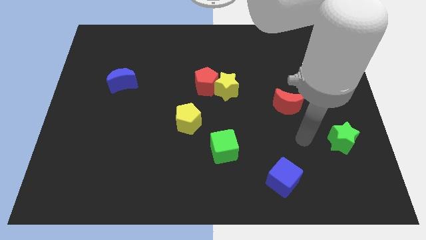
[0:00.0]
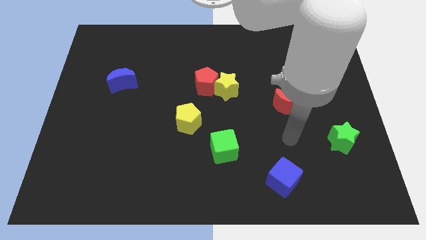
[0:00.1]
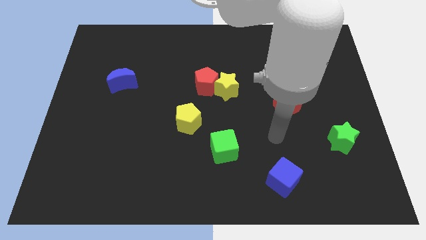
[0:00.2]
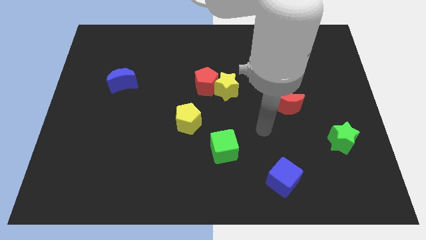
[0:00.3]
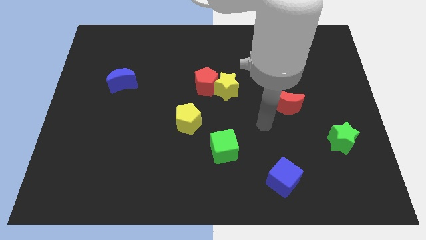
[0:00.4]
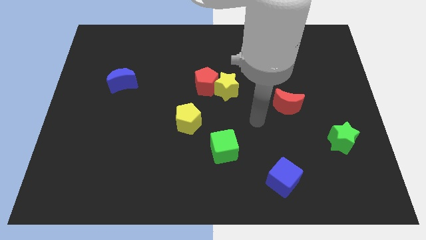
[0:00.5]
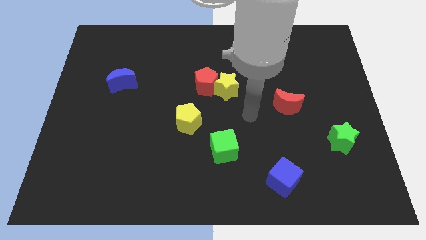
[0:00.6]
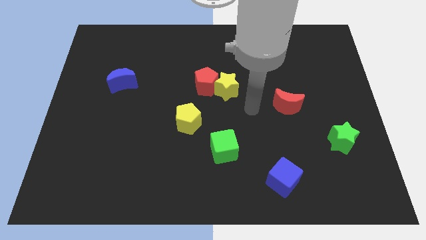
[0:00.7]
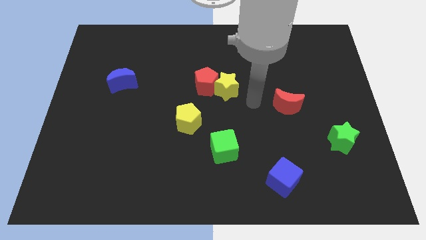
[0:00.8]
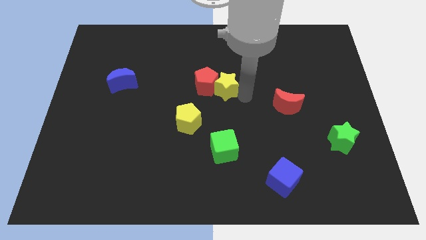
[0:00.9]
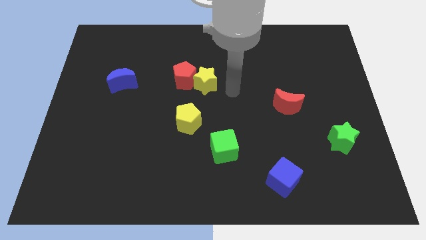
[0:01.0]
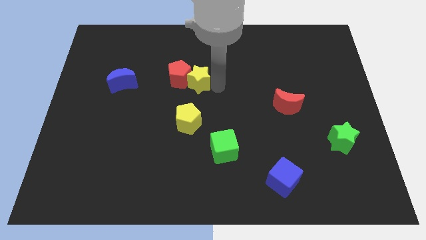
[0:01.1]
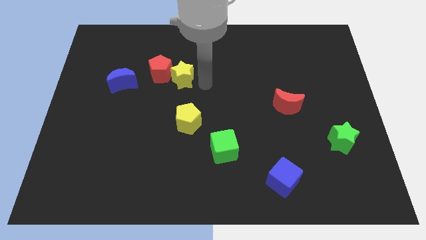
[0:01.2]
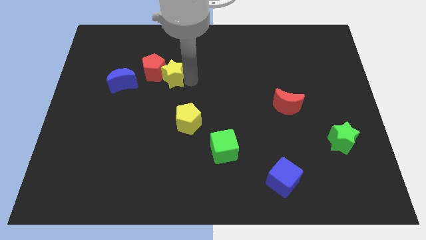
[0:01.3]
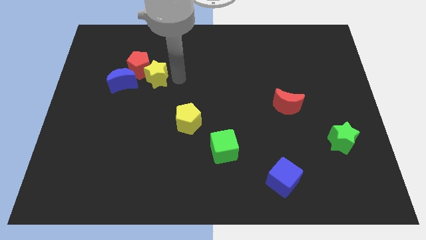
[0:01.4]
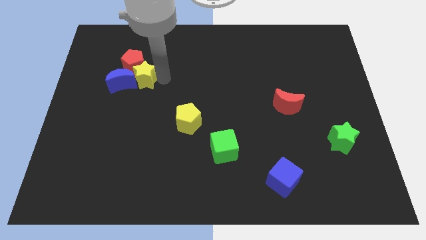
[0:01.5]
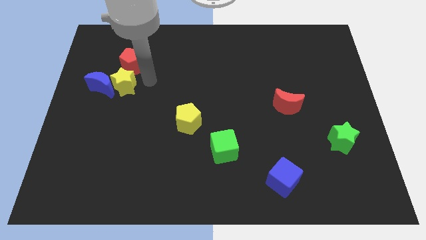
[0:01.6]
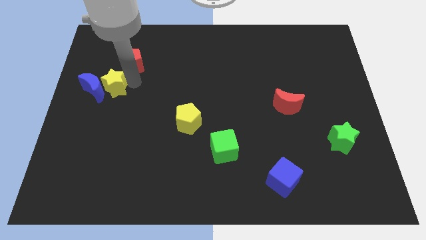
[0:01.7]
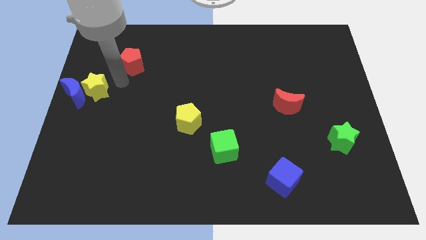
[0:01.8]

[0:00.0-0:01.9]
move the red pentagon away from the yellow star

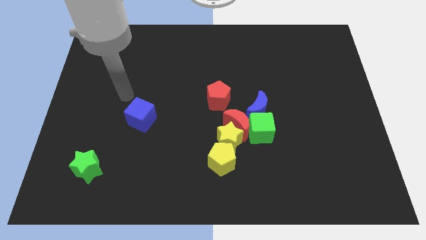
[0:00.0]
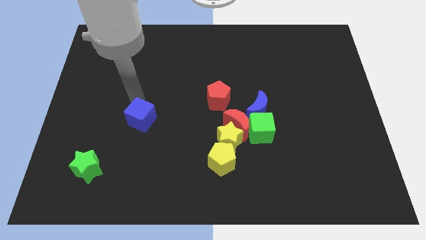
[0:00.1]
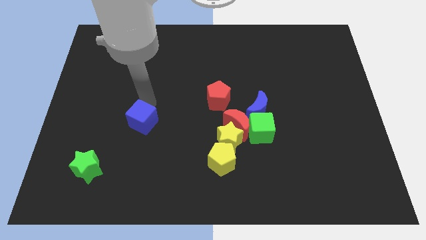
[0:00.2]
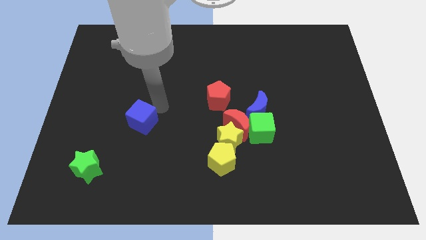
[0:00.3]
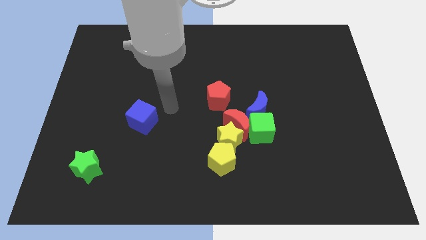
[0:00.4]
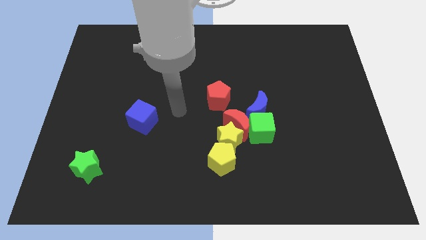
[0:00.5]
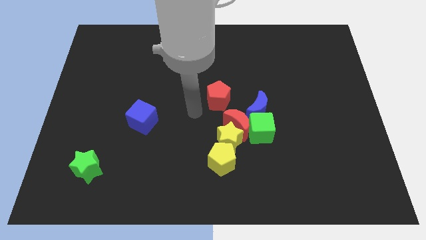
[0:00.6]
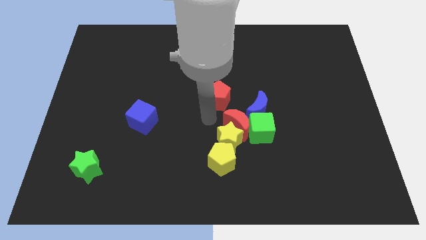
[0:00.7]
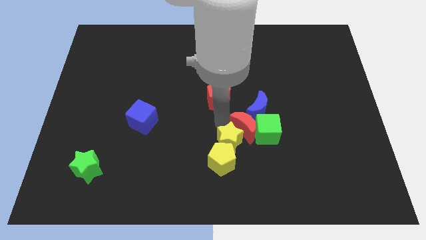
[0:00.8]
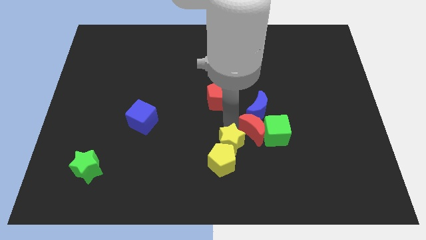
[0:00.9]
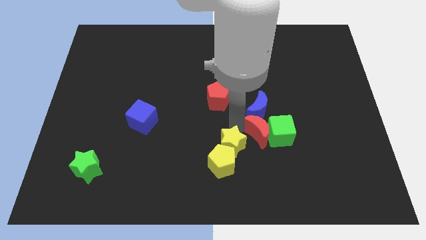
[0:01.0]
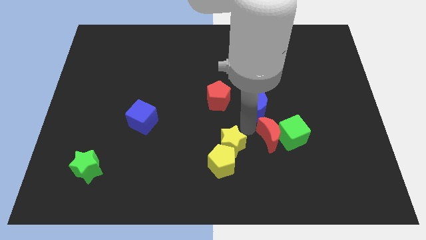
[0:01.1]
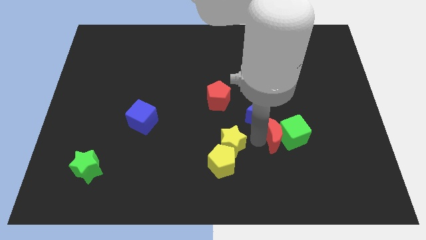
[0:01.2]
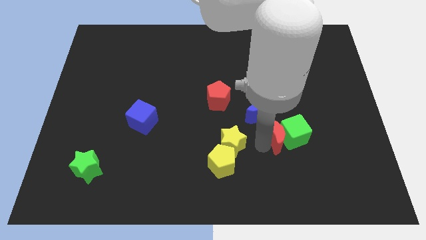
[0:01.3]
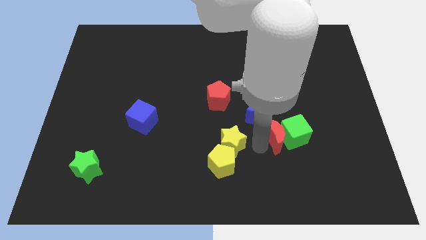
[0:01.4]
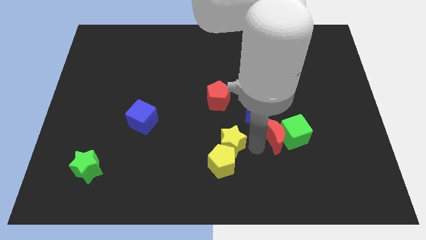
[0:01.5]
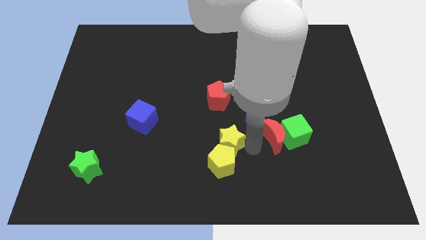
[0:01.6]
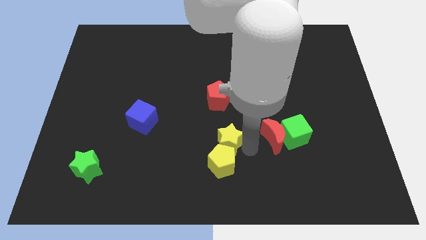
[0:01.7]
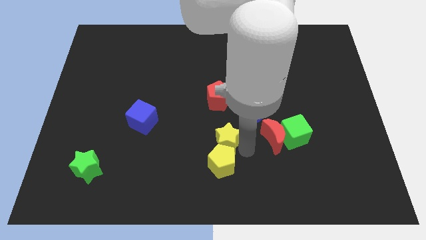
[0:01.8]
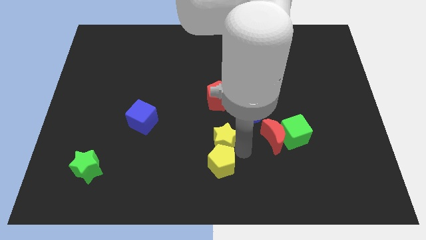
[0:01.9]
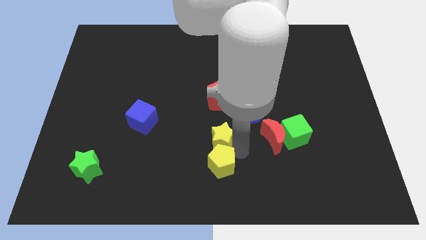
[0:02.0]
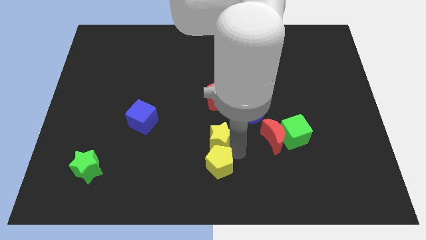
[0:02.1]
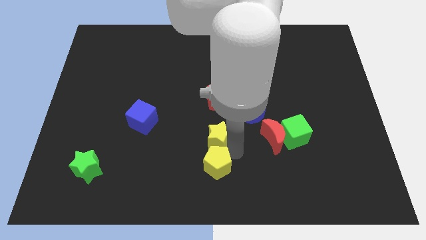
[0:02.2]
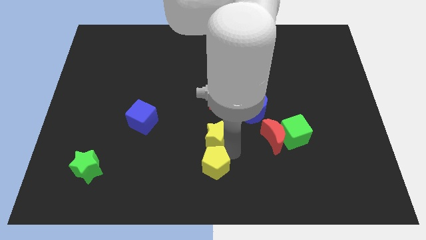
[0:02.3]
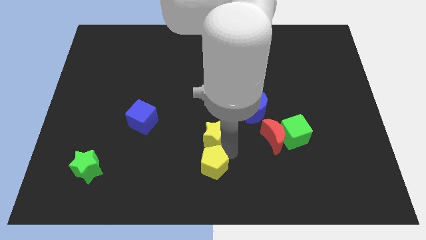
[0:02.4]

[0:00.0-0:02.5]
pull the yellow star apart from the red moon, yellow pentagon, and green cube

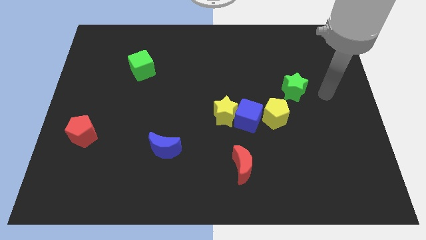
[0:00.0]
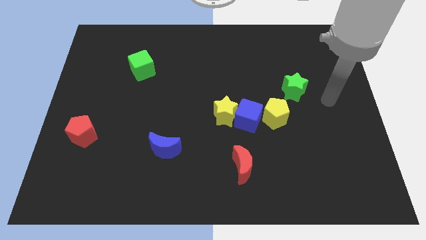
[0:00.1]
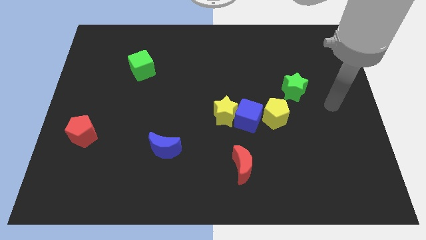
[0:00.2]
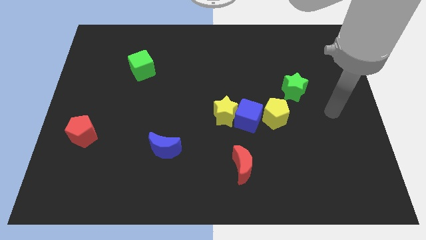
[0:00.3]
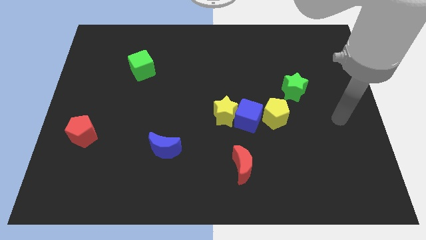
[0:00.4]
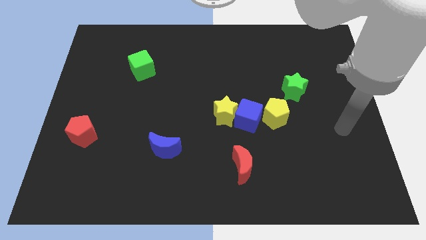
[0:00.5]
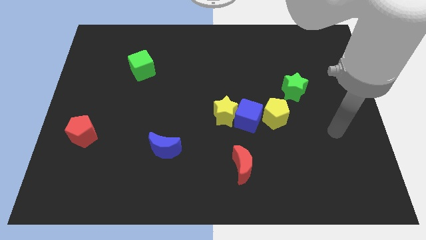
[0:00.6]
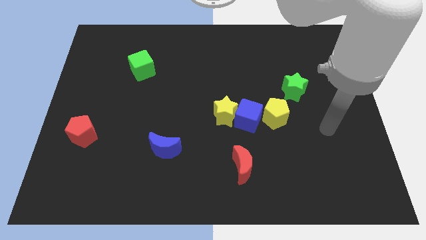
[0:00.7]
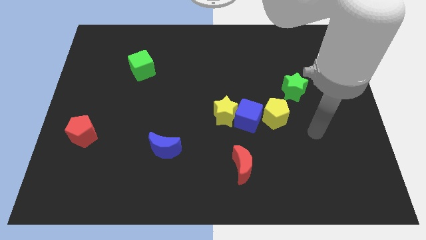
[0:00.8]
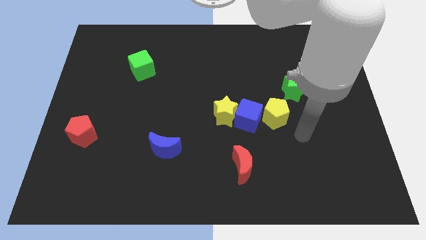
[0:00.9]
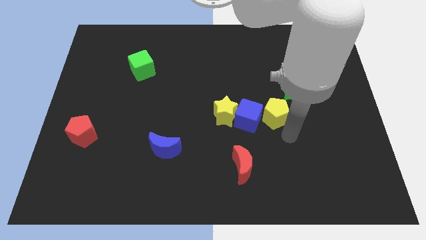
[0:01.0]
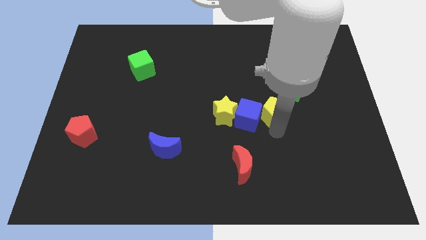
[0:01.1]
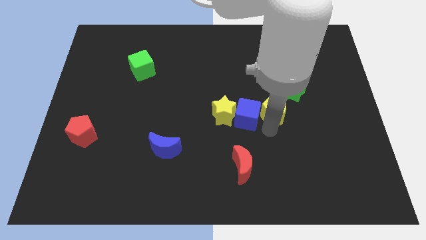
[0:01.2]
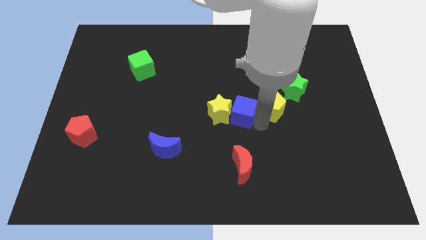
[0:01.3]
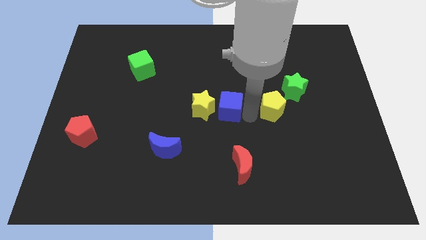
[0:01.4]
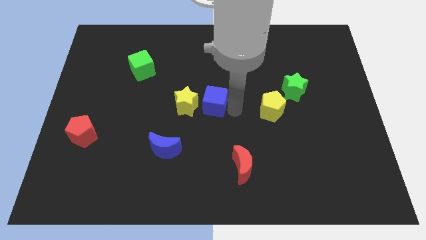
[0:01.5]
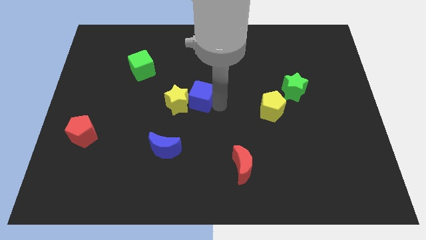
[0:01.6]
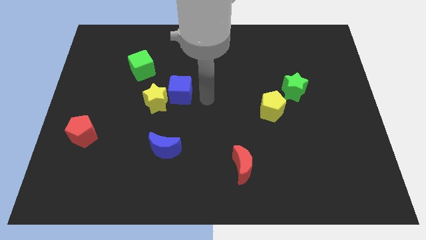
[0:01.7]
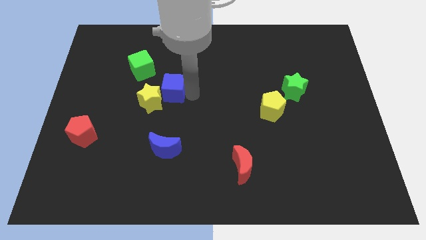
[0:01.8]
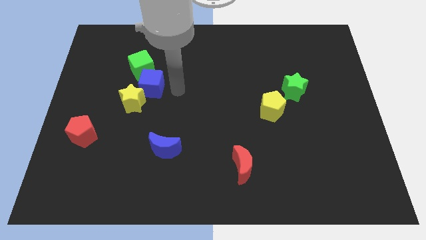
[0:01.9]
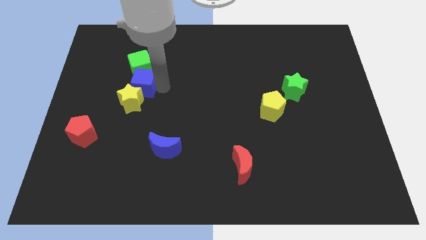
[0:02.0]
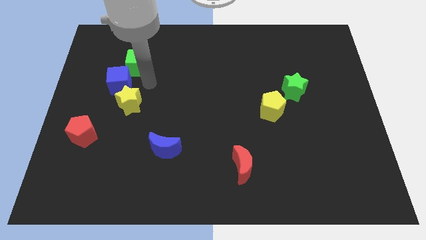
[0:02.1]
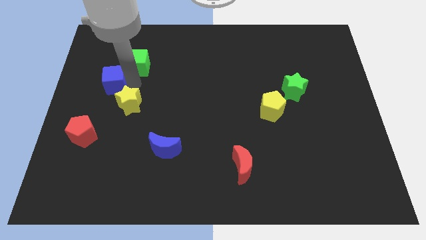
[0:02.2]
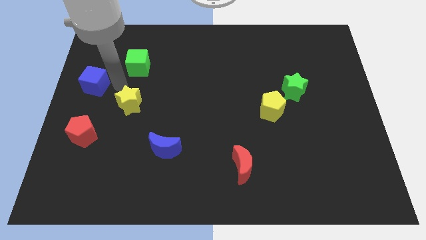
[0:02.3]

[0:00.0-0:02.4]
separate the yellow star from the blue cube

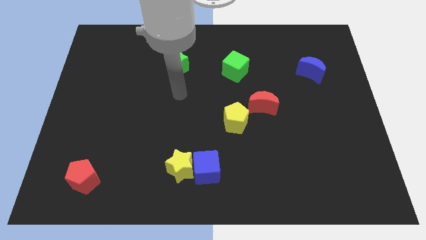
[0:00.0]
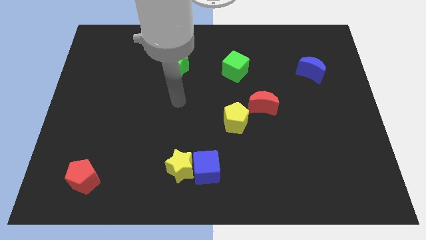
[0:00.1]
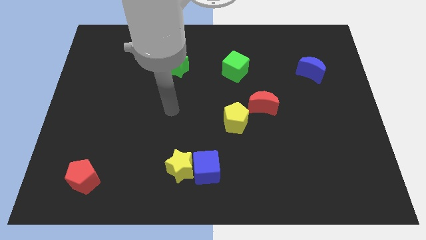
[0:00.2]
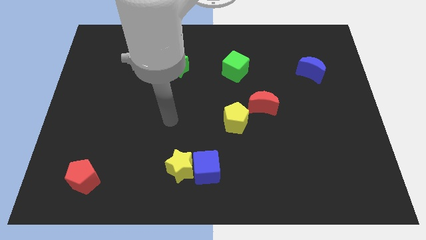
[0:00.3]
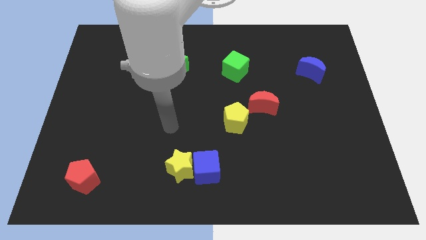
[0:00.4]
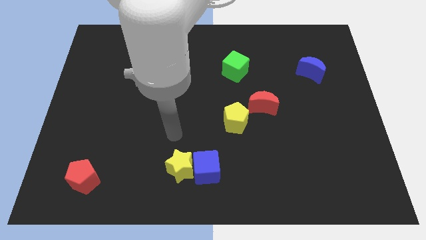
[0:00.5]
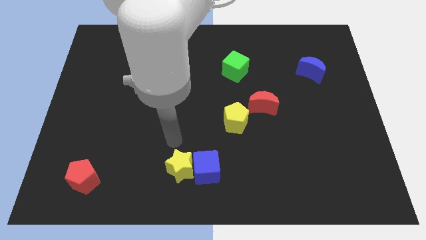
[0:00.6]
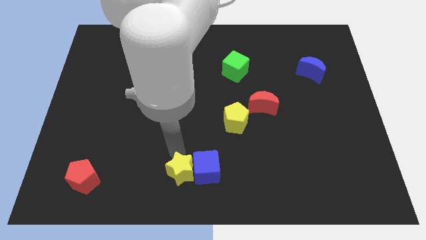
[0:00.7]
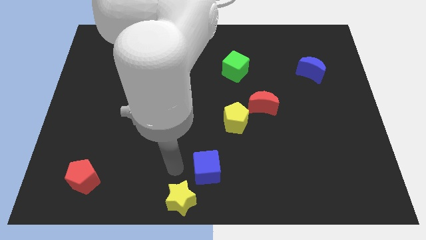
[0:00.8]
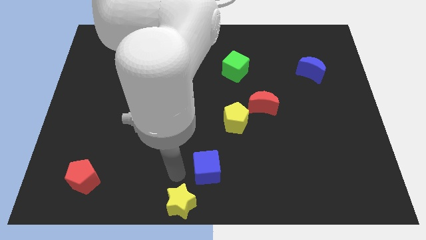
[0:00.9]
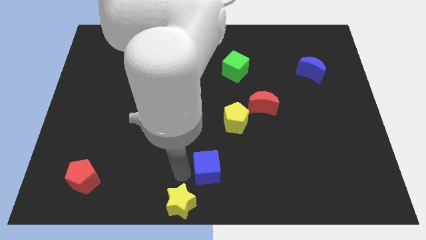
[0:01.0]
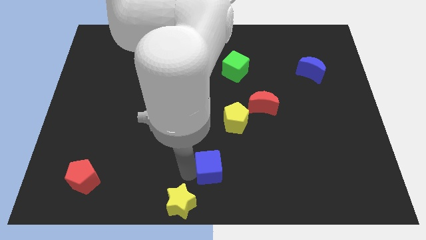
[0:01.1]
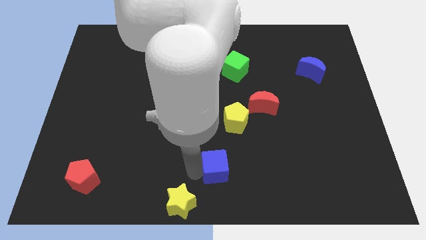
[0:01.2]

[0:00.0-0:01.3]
move the blue cube away from the yellow star

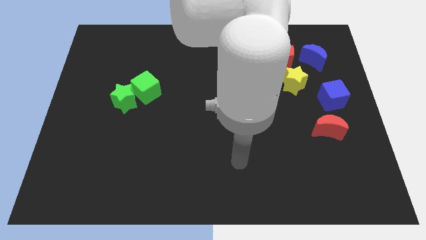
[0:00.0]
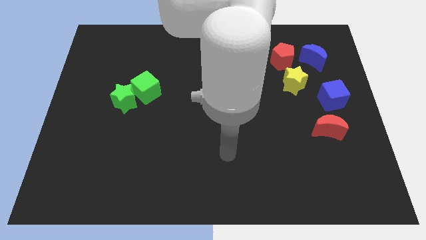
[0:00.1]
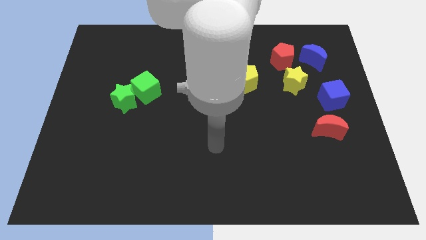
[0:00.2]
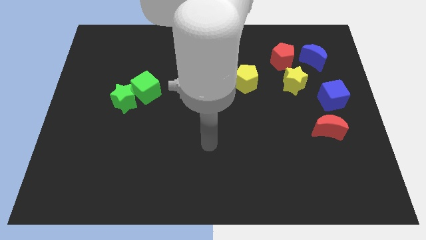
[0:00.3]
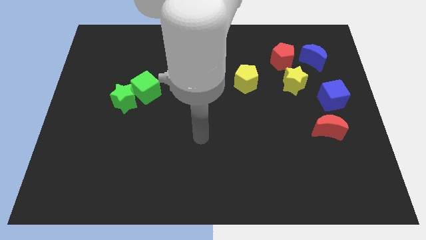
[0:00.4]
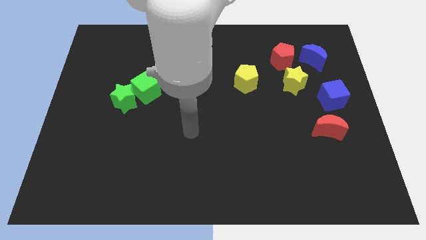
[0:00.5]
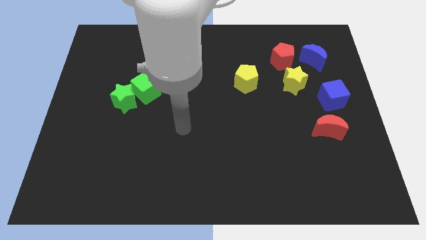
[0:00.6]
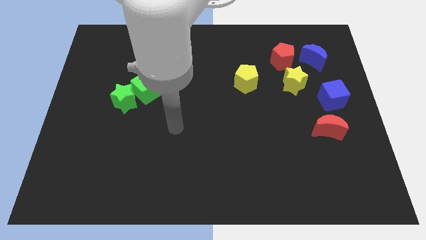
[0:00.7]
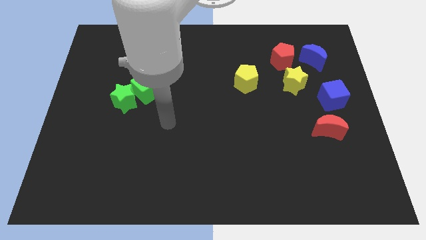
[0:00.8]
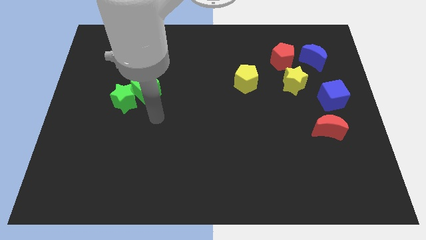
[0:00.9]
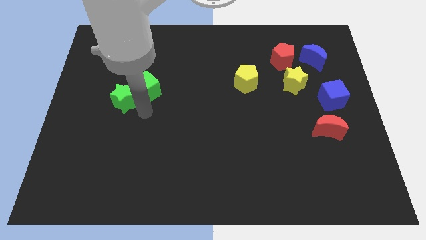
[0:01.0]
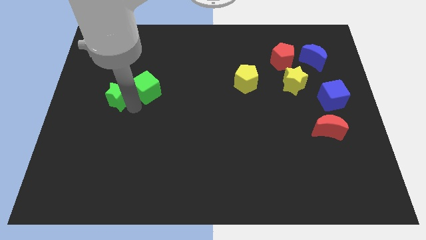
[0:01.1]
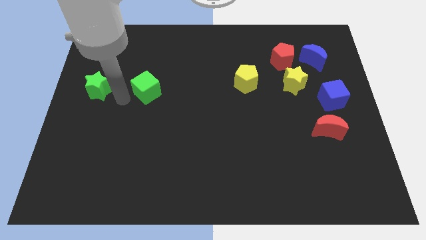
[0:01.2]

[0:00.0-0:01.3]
pull the green cube apart from the green star
